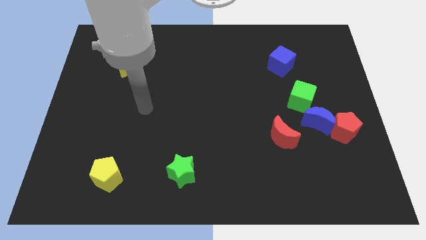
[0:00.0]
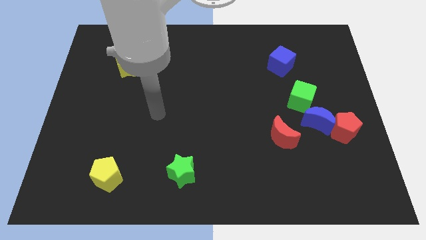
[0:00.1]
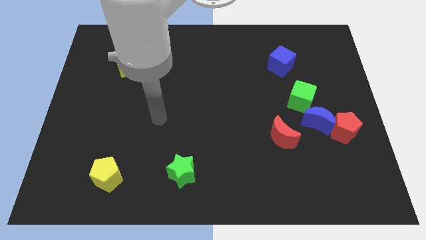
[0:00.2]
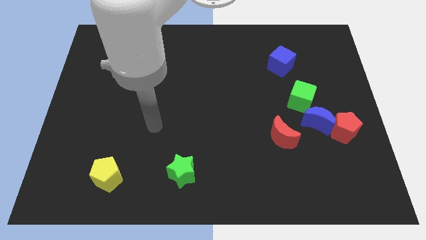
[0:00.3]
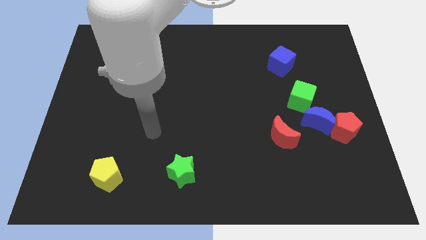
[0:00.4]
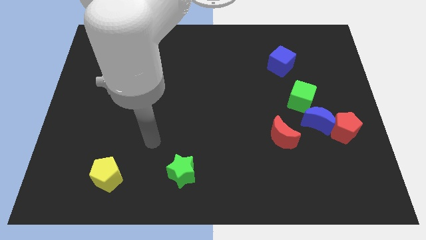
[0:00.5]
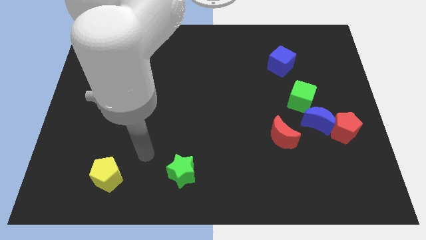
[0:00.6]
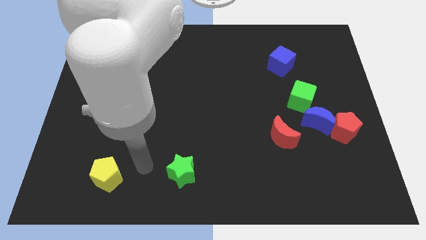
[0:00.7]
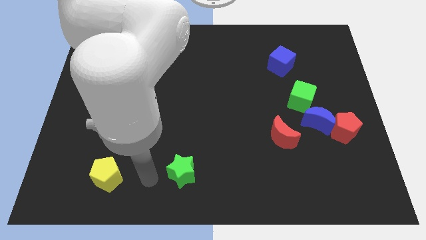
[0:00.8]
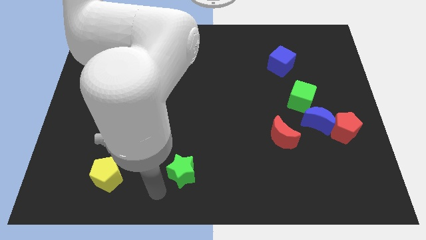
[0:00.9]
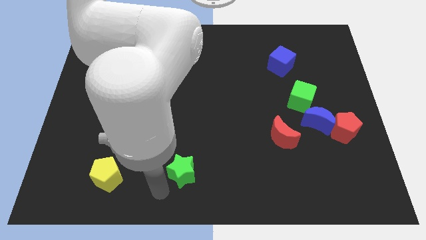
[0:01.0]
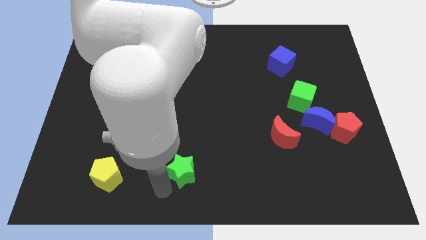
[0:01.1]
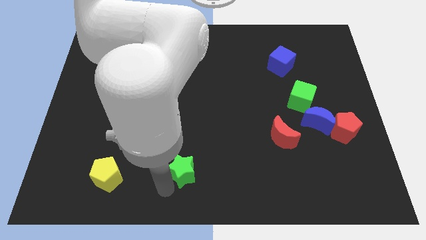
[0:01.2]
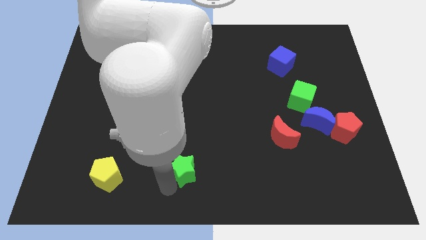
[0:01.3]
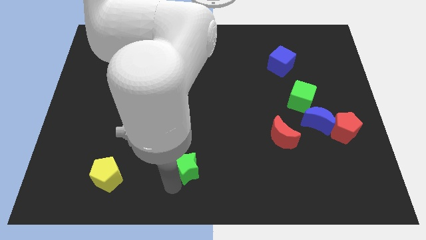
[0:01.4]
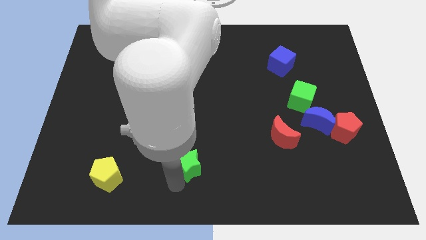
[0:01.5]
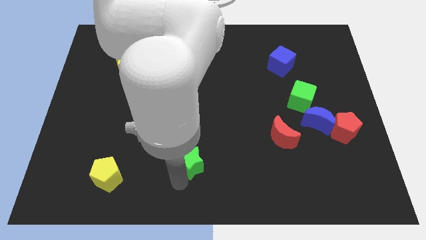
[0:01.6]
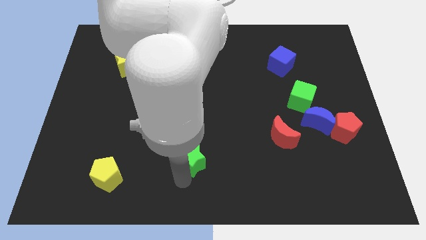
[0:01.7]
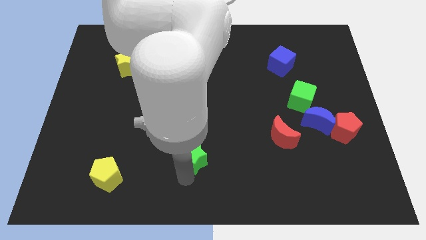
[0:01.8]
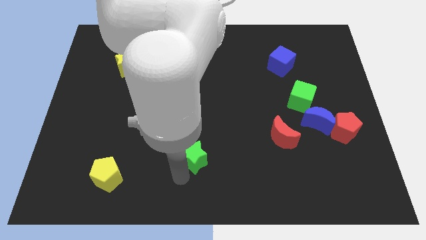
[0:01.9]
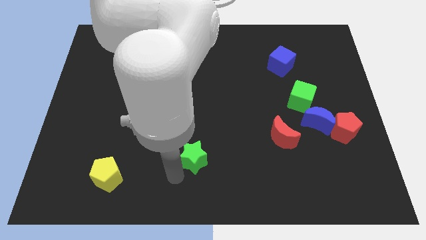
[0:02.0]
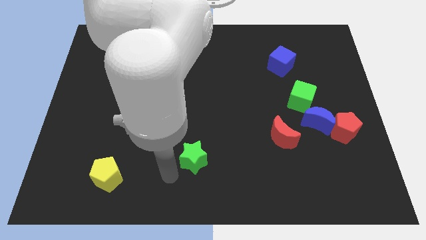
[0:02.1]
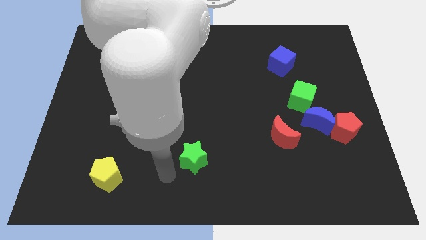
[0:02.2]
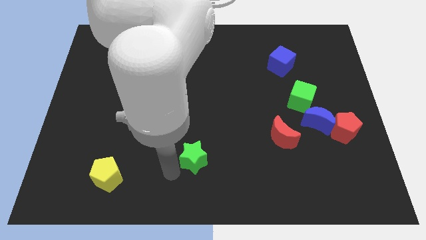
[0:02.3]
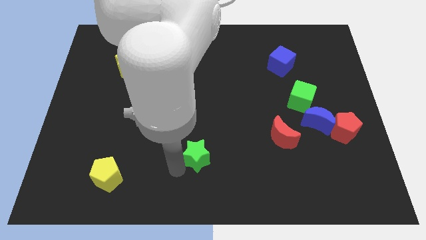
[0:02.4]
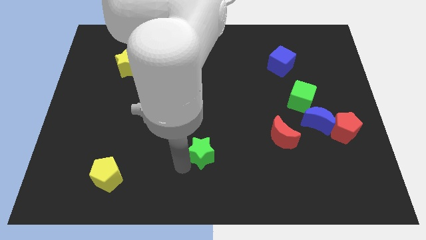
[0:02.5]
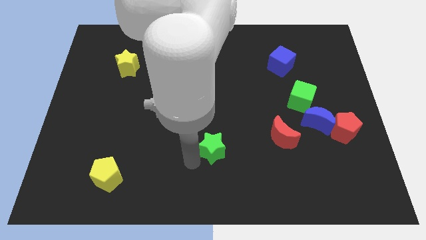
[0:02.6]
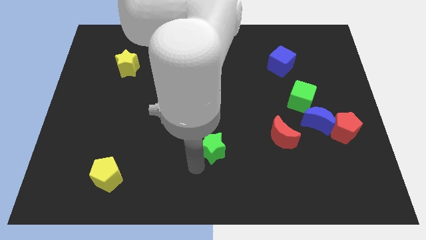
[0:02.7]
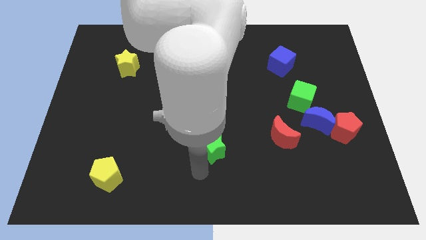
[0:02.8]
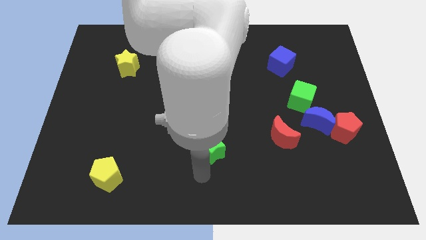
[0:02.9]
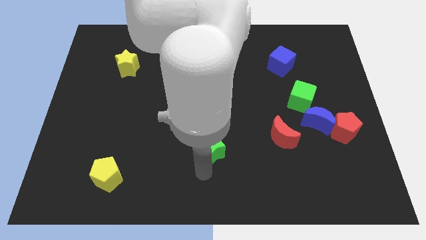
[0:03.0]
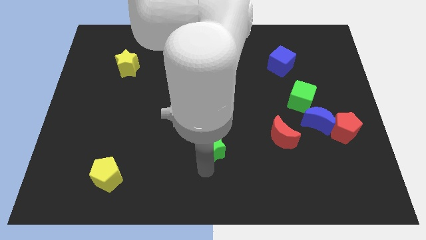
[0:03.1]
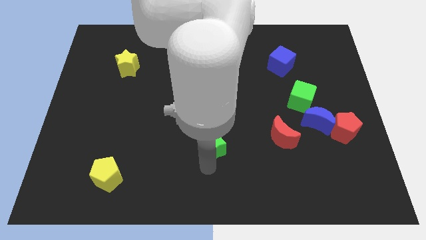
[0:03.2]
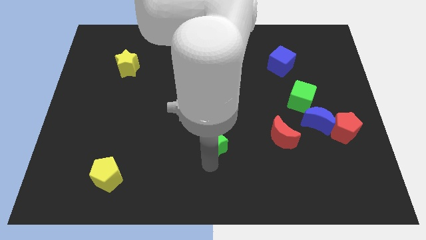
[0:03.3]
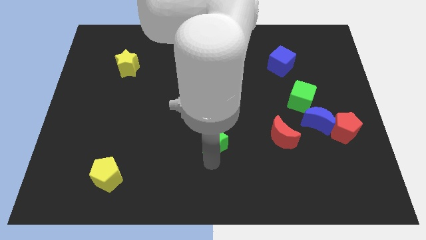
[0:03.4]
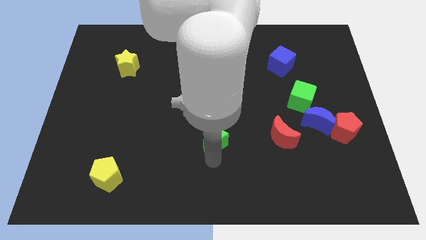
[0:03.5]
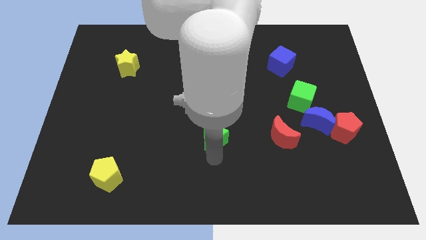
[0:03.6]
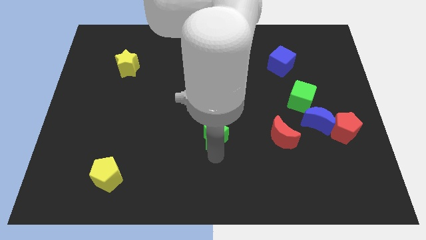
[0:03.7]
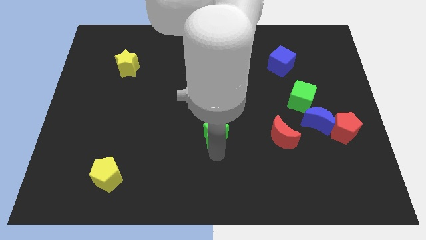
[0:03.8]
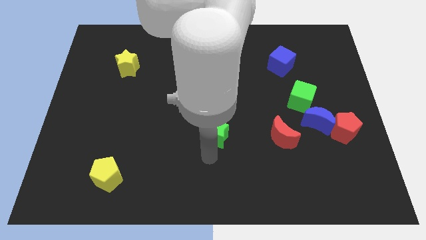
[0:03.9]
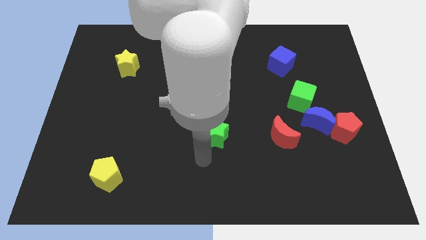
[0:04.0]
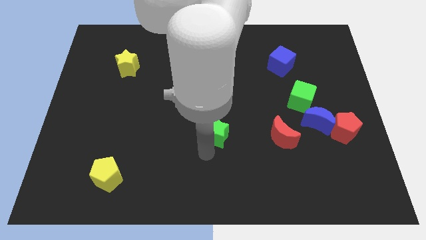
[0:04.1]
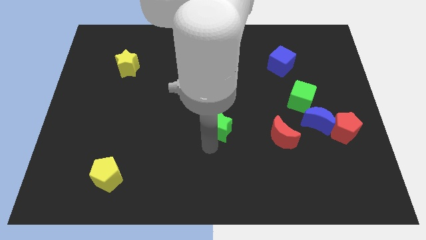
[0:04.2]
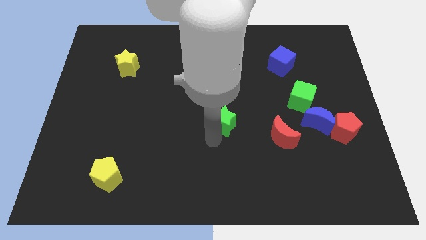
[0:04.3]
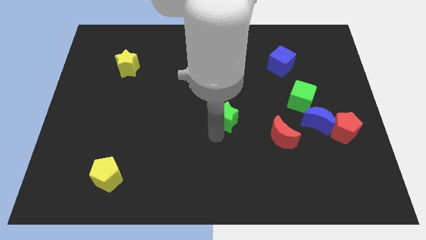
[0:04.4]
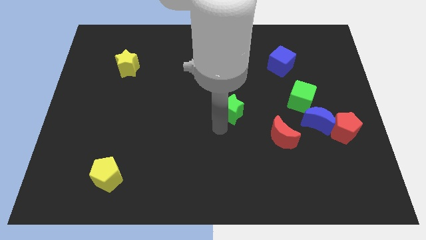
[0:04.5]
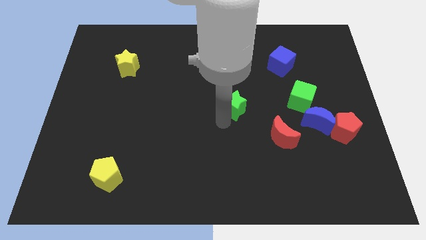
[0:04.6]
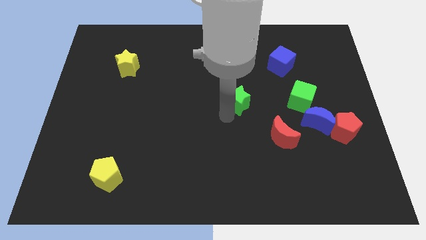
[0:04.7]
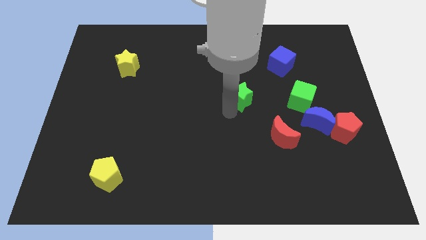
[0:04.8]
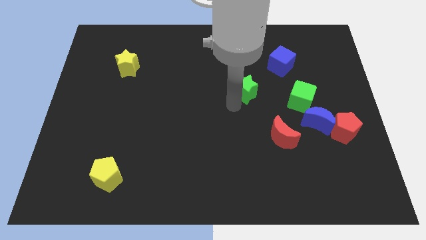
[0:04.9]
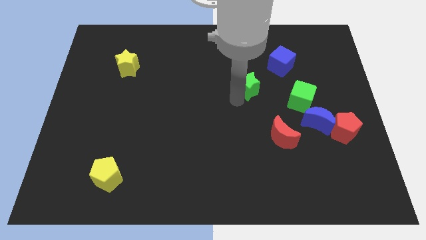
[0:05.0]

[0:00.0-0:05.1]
push the green star to the bottom left side of the blue cube

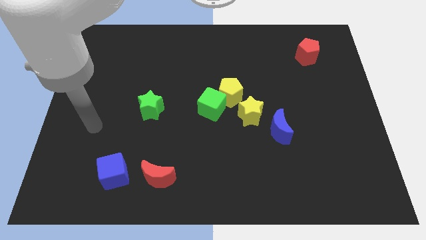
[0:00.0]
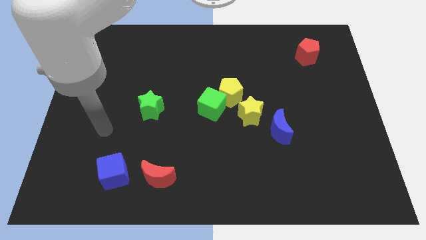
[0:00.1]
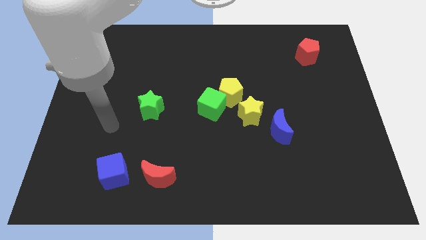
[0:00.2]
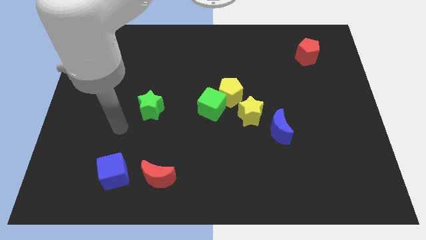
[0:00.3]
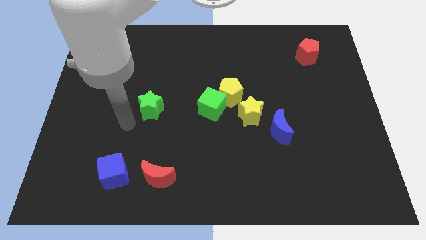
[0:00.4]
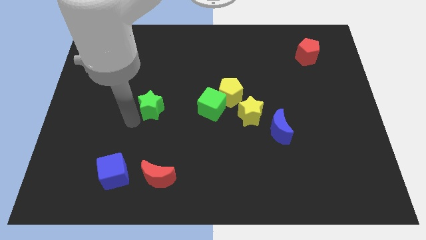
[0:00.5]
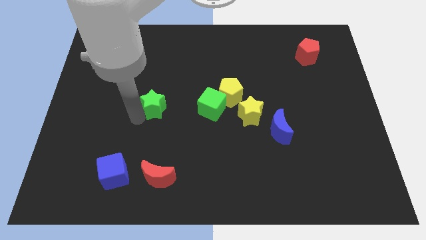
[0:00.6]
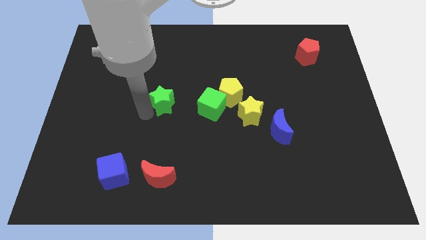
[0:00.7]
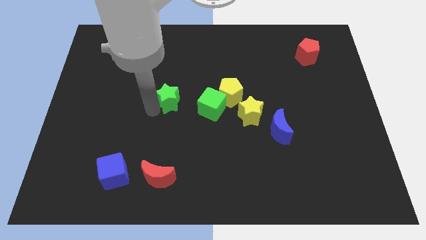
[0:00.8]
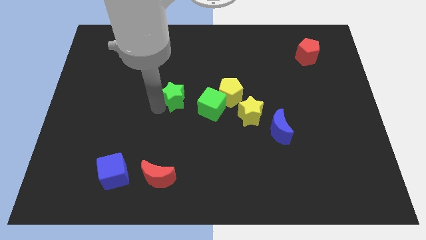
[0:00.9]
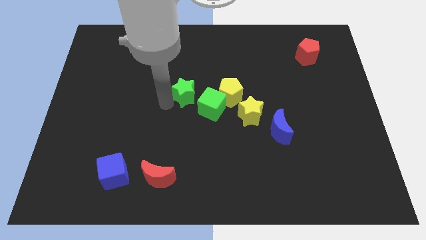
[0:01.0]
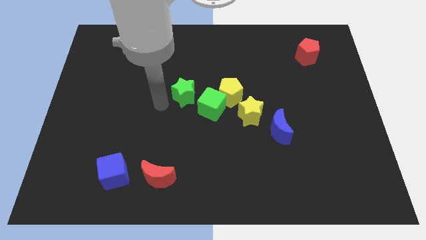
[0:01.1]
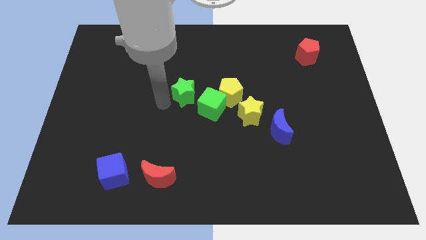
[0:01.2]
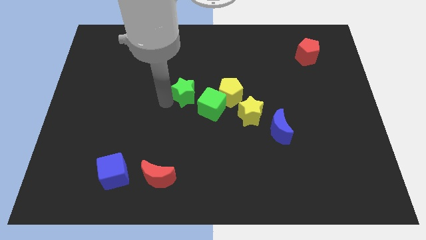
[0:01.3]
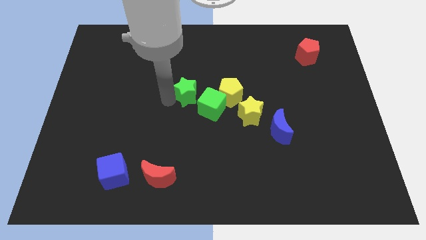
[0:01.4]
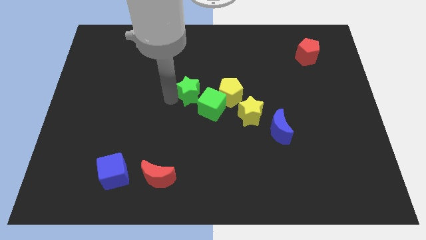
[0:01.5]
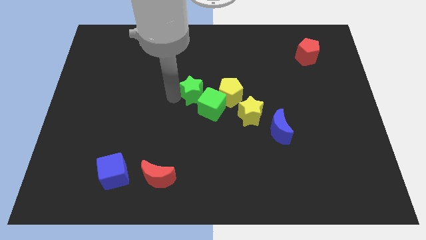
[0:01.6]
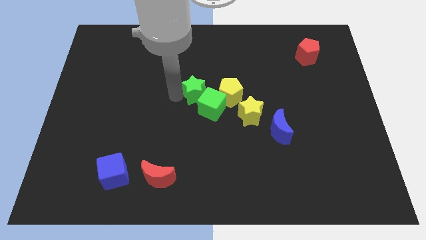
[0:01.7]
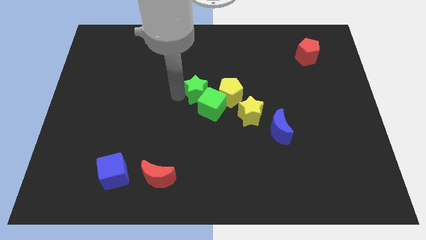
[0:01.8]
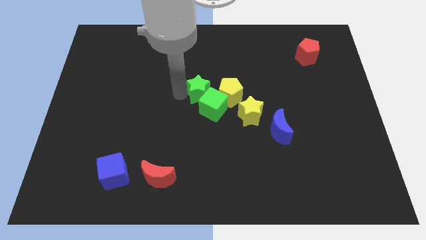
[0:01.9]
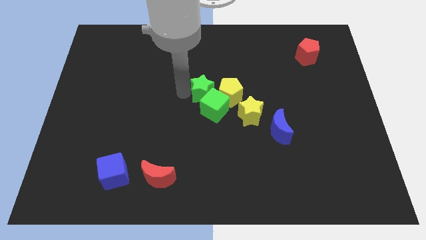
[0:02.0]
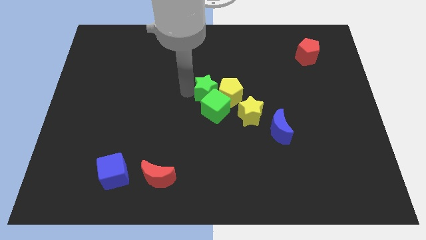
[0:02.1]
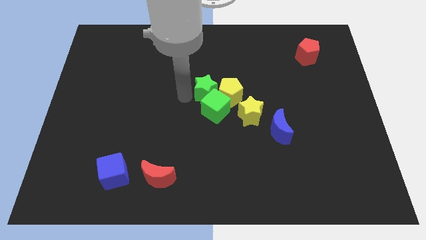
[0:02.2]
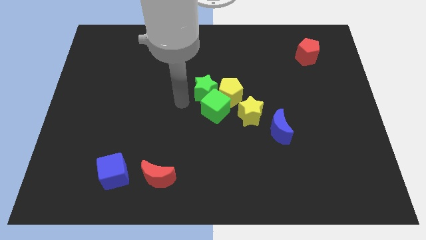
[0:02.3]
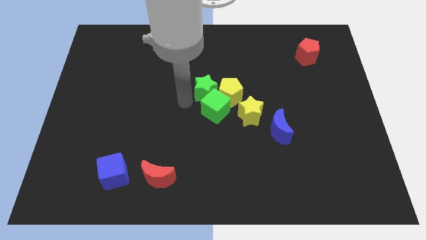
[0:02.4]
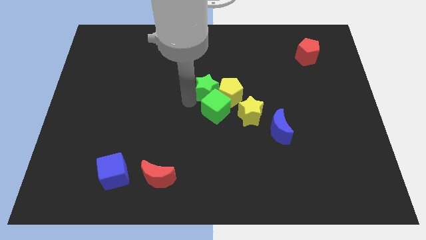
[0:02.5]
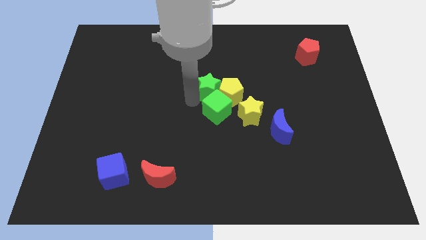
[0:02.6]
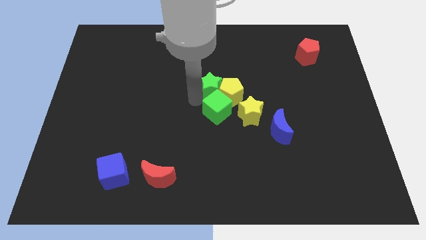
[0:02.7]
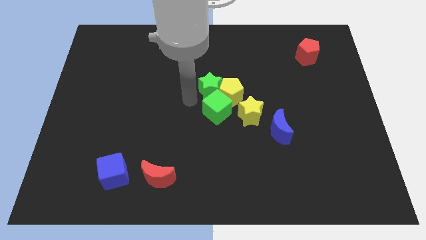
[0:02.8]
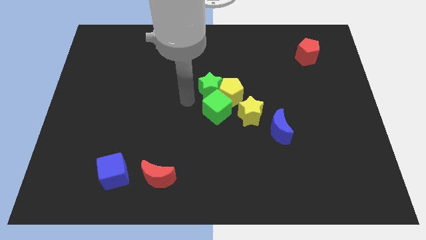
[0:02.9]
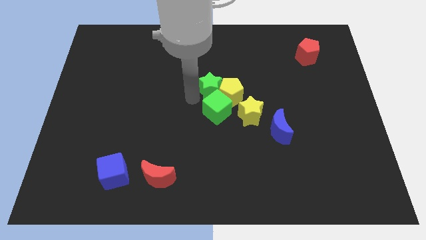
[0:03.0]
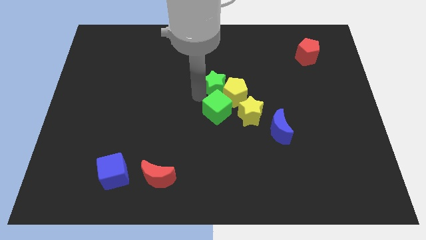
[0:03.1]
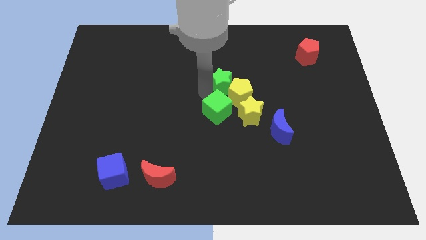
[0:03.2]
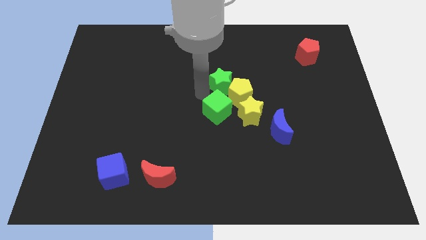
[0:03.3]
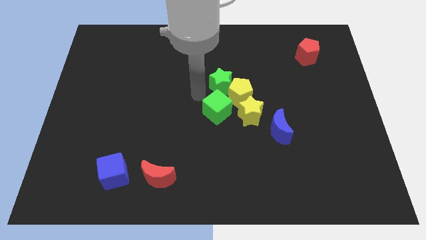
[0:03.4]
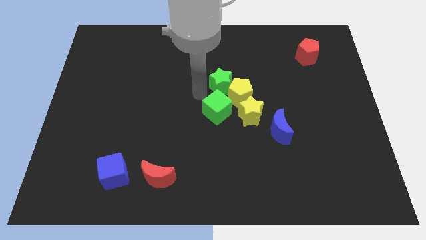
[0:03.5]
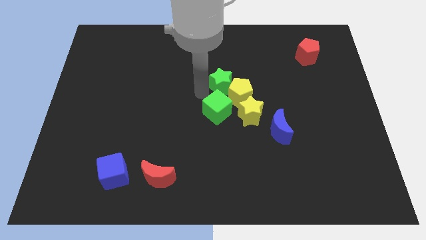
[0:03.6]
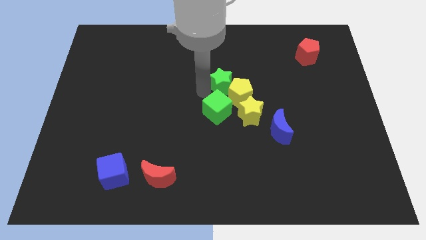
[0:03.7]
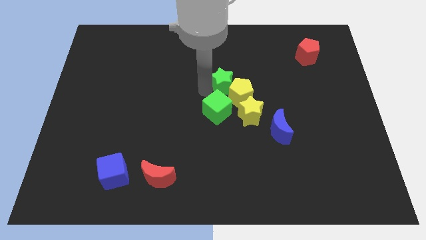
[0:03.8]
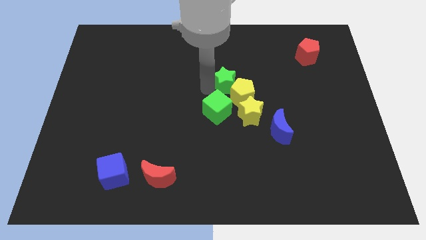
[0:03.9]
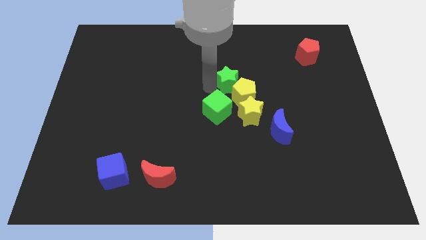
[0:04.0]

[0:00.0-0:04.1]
put the green star above the yellow star
